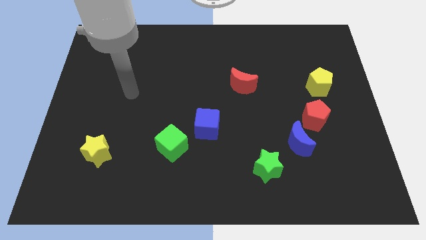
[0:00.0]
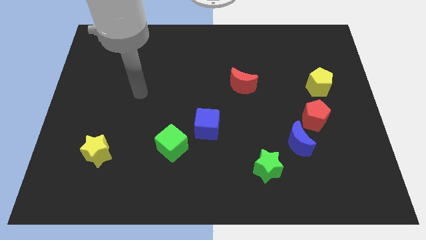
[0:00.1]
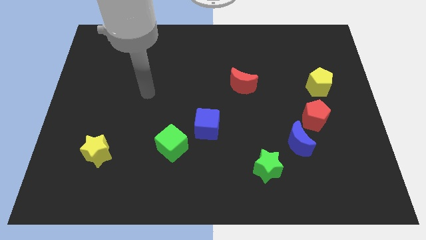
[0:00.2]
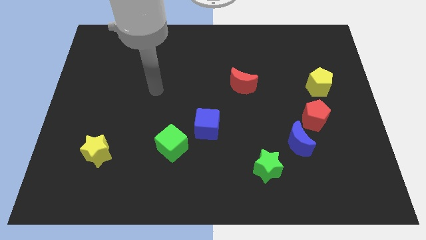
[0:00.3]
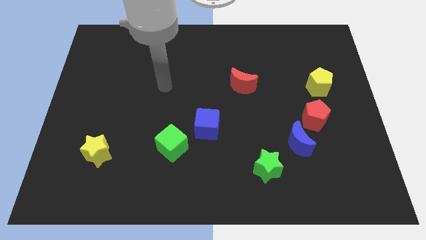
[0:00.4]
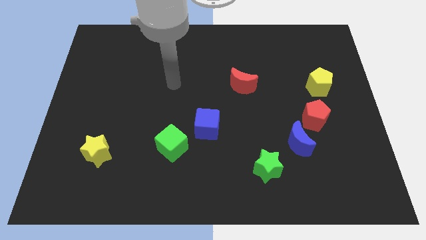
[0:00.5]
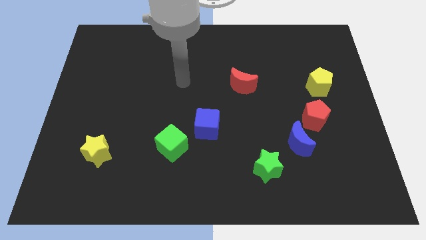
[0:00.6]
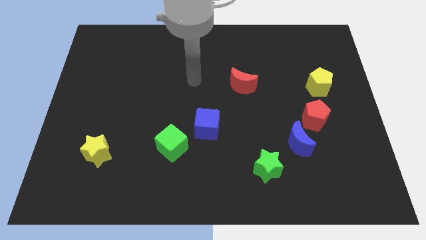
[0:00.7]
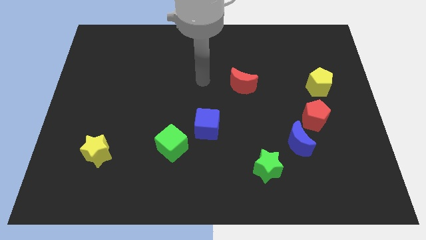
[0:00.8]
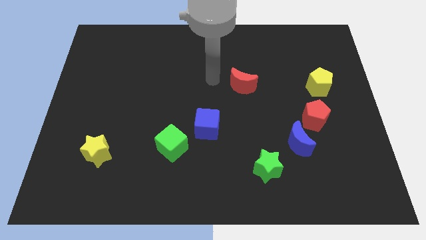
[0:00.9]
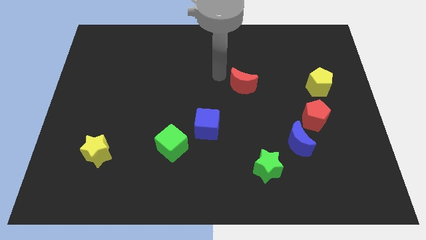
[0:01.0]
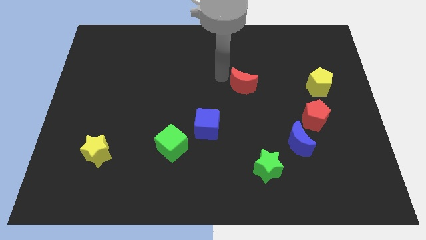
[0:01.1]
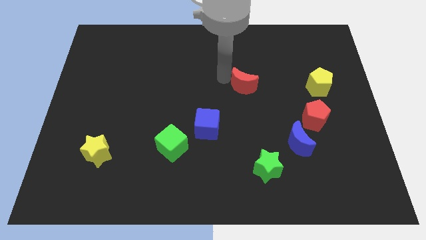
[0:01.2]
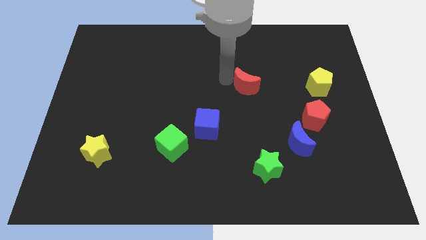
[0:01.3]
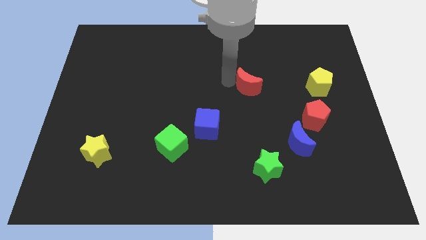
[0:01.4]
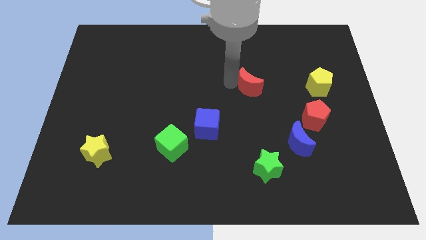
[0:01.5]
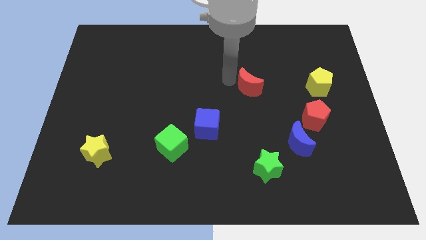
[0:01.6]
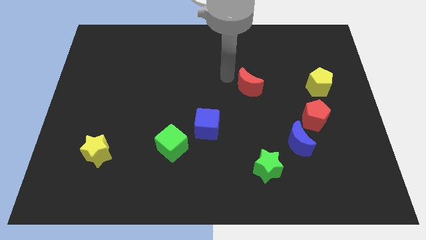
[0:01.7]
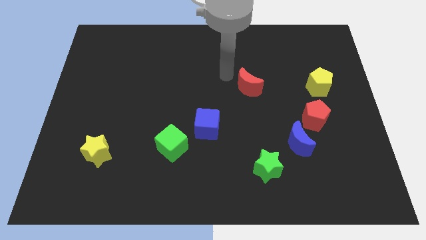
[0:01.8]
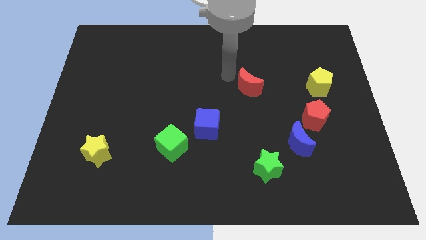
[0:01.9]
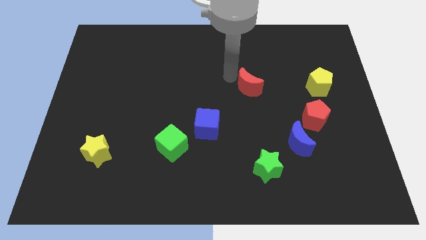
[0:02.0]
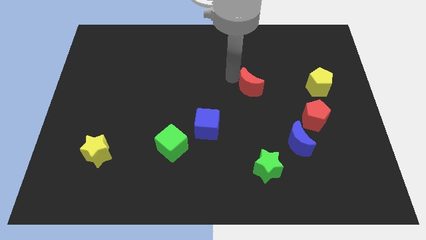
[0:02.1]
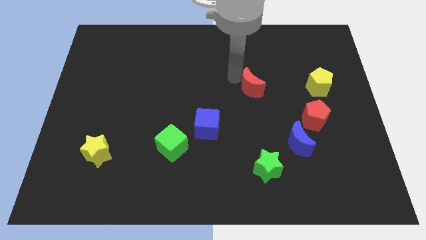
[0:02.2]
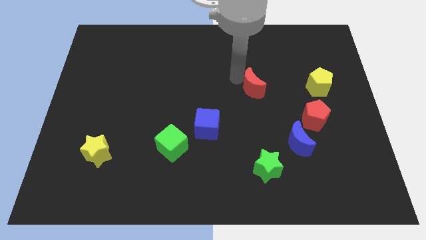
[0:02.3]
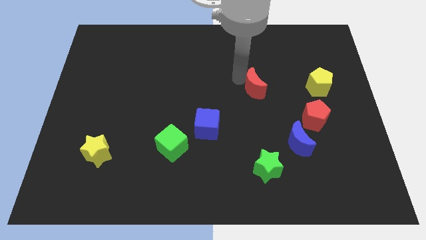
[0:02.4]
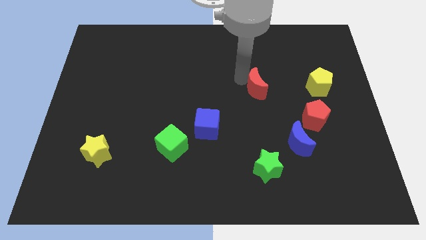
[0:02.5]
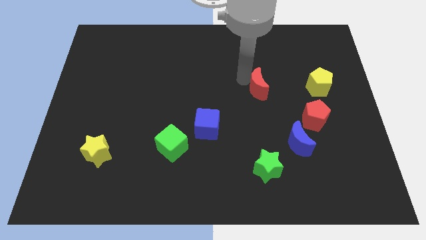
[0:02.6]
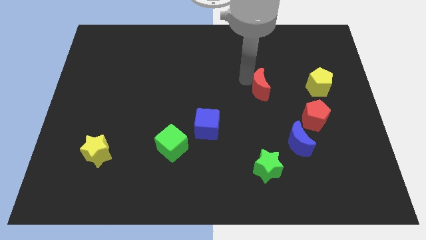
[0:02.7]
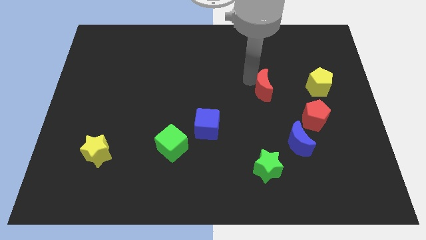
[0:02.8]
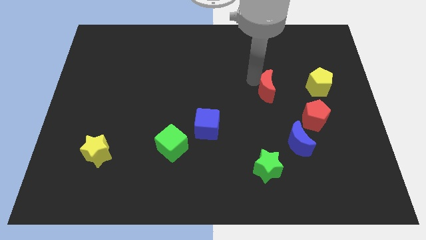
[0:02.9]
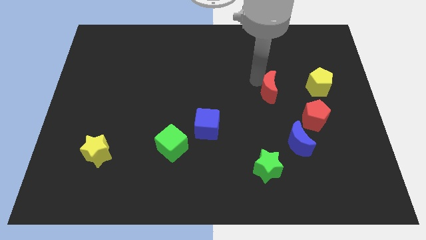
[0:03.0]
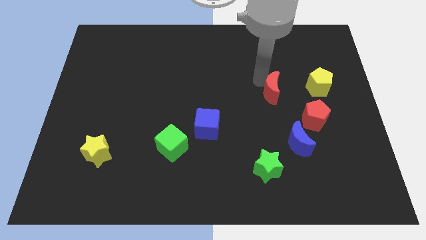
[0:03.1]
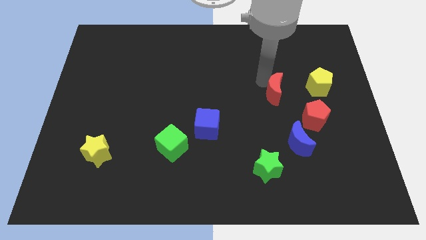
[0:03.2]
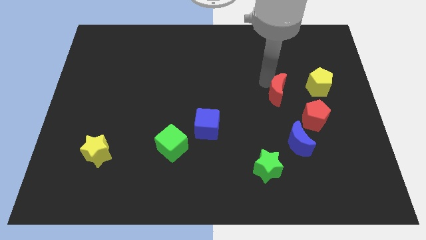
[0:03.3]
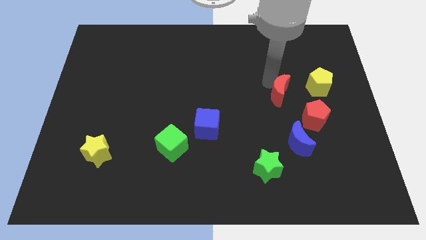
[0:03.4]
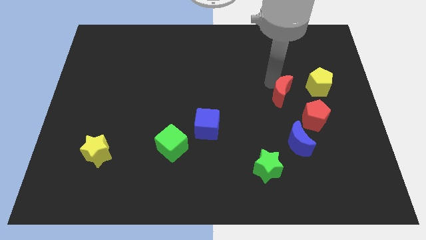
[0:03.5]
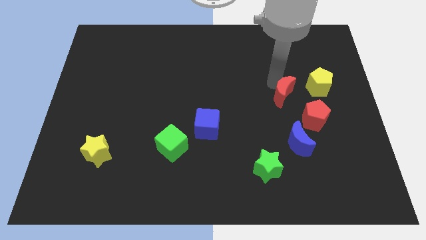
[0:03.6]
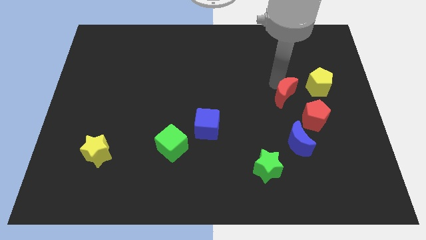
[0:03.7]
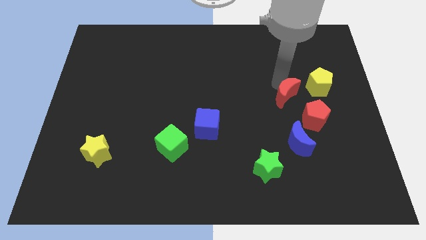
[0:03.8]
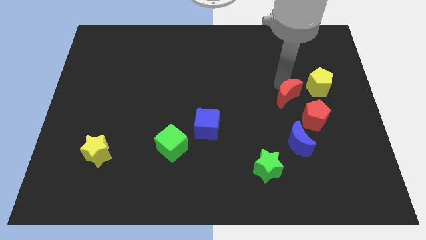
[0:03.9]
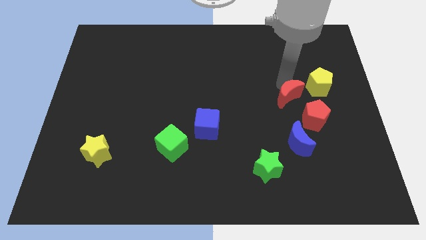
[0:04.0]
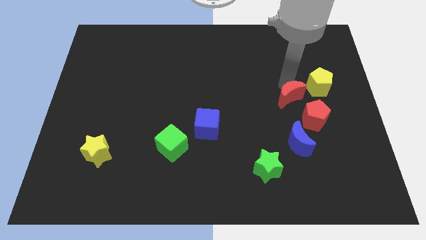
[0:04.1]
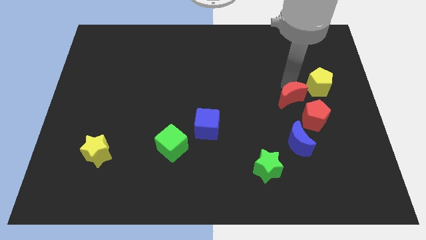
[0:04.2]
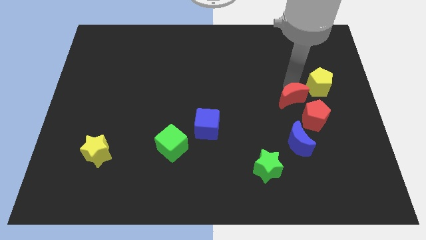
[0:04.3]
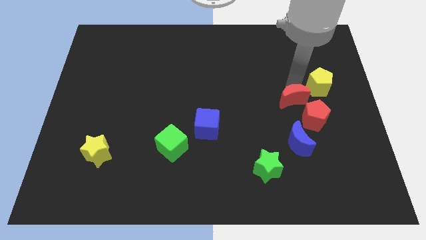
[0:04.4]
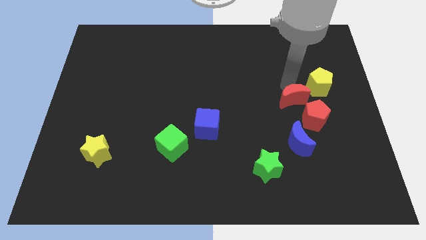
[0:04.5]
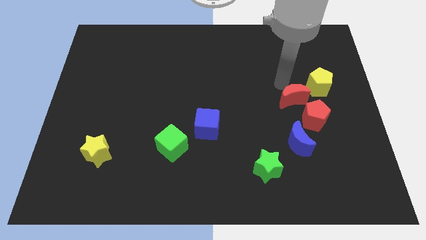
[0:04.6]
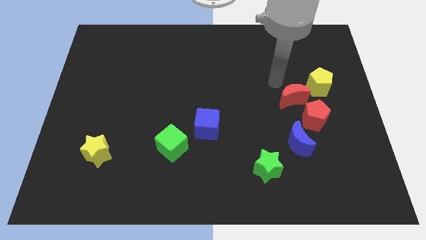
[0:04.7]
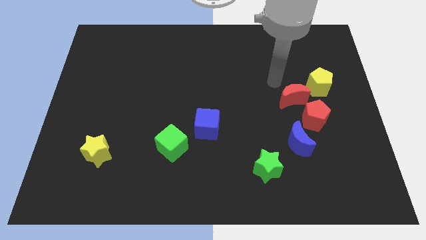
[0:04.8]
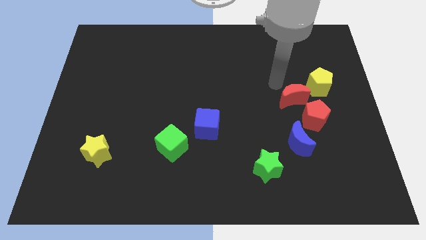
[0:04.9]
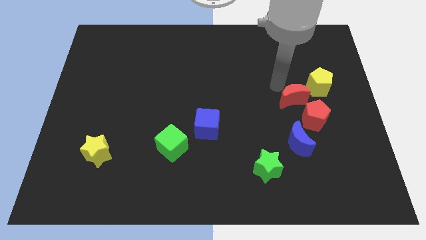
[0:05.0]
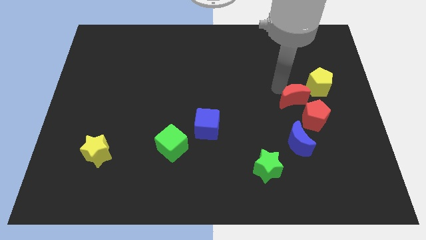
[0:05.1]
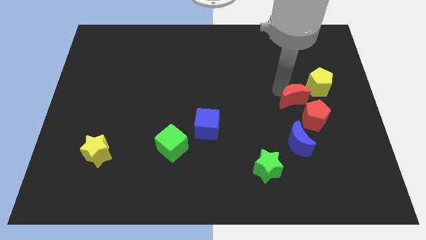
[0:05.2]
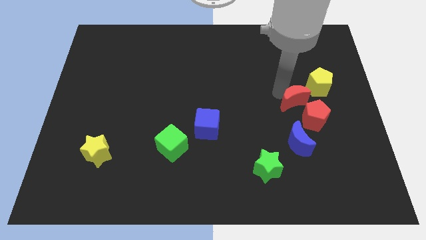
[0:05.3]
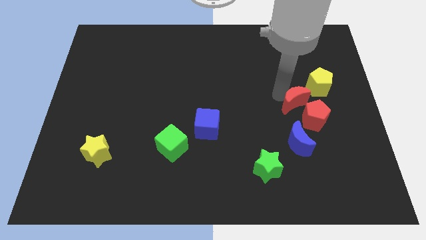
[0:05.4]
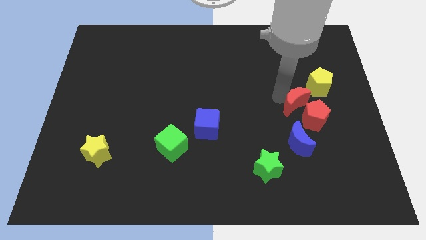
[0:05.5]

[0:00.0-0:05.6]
put the red moon towards the red pentagon

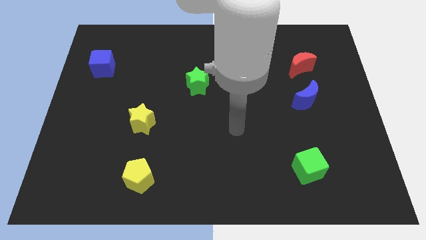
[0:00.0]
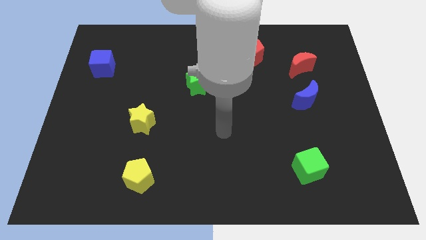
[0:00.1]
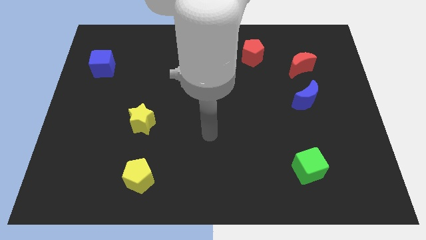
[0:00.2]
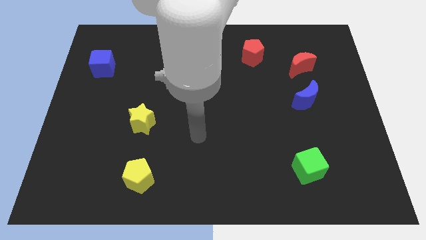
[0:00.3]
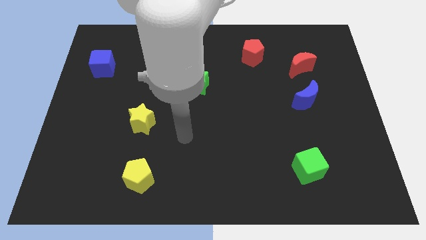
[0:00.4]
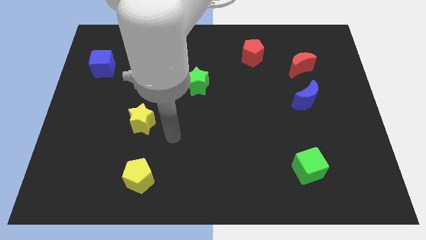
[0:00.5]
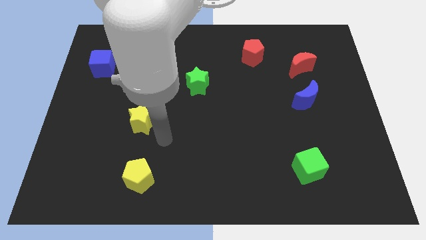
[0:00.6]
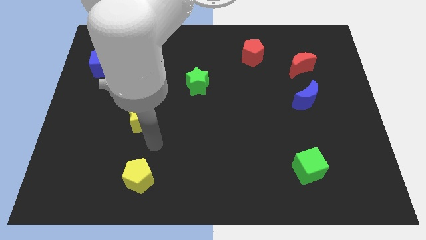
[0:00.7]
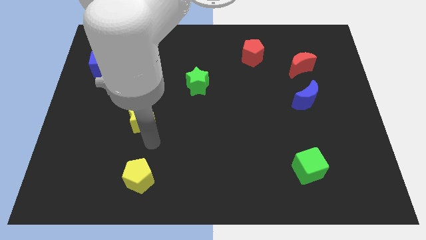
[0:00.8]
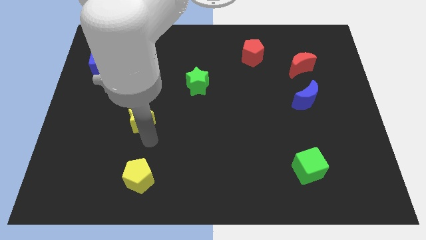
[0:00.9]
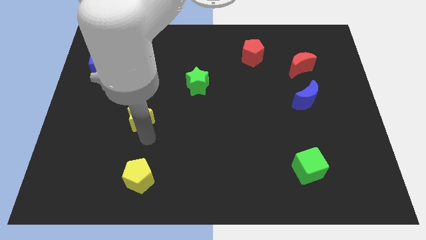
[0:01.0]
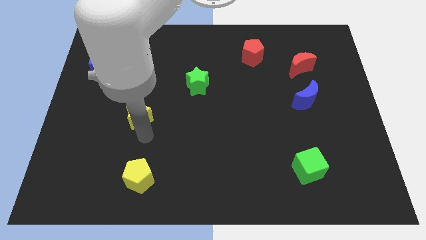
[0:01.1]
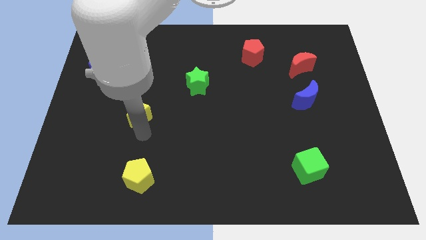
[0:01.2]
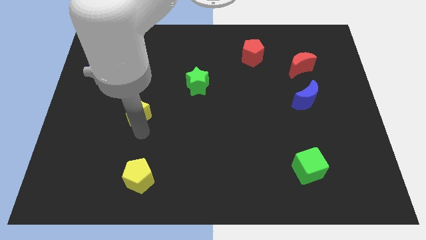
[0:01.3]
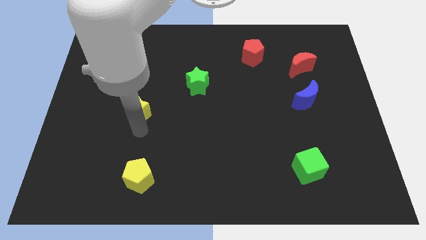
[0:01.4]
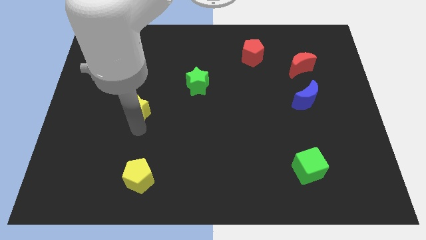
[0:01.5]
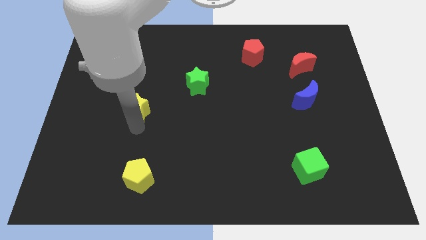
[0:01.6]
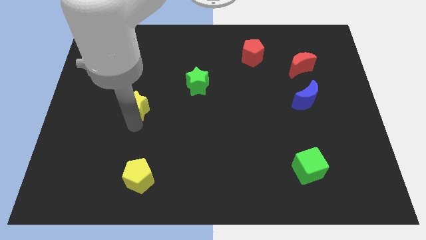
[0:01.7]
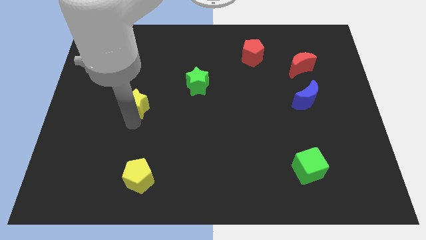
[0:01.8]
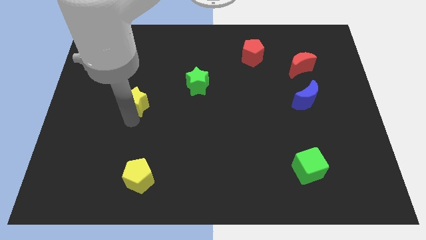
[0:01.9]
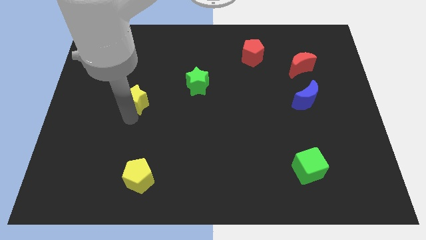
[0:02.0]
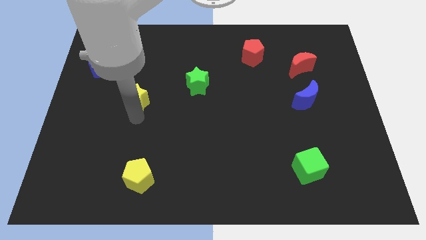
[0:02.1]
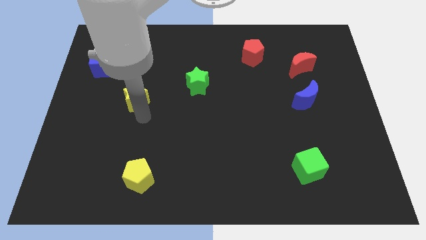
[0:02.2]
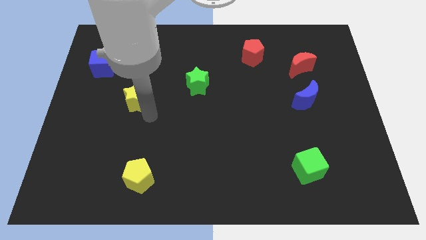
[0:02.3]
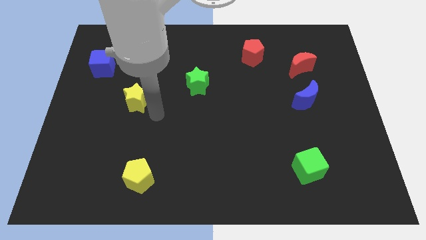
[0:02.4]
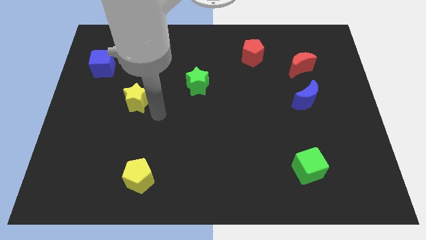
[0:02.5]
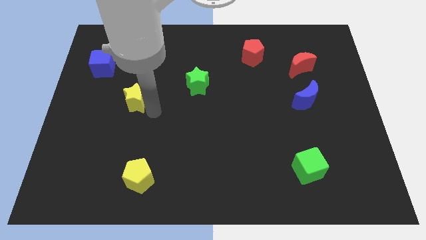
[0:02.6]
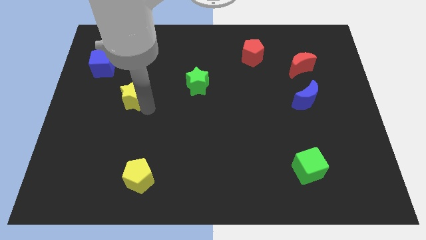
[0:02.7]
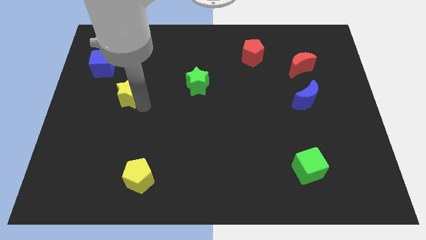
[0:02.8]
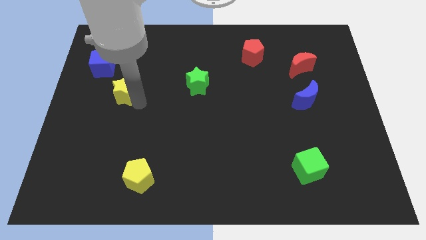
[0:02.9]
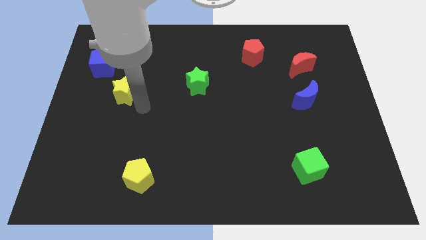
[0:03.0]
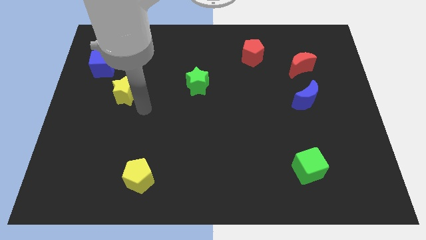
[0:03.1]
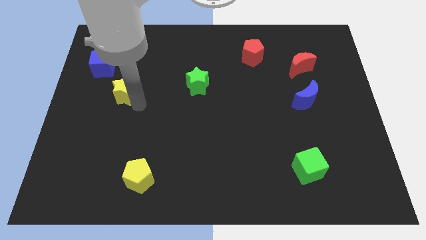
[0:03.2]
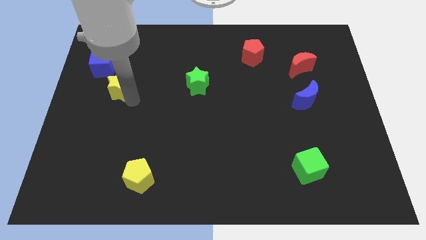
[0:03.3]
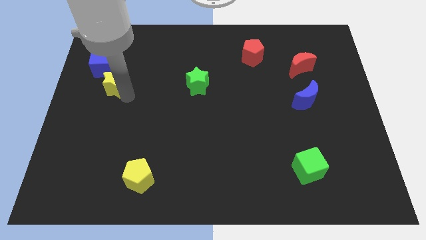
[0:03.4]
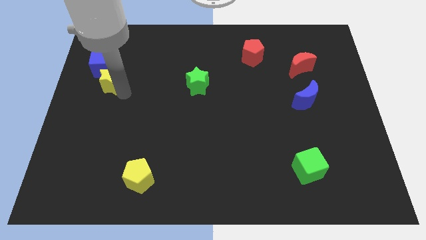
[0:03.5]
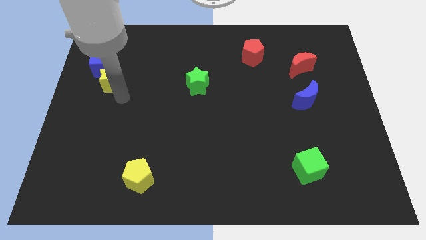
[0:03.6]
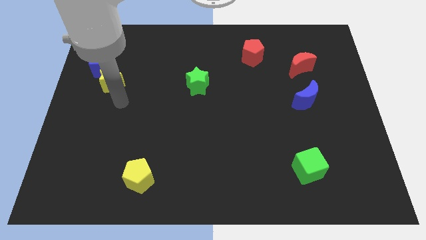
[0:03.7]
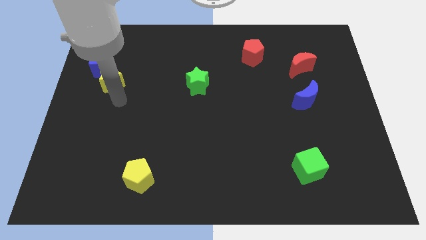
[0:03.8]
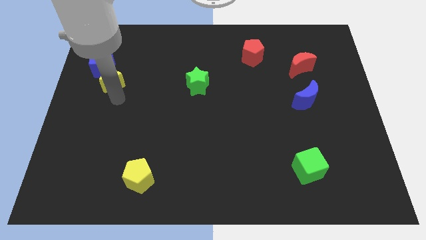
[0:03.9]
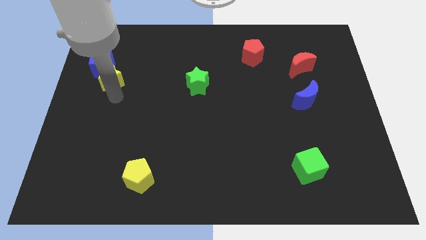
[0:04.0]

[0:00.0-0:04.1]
push the yellow star towards the blue cube
